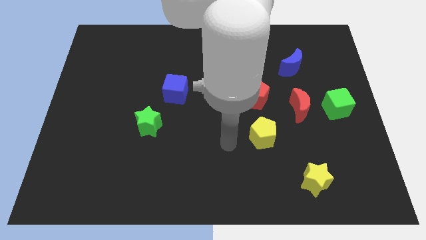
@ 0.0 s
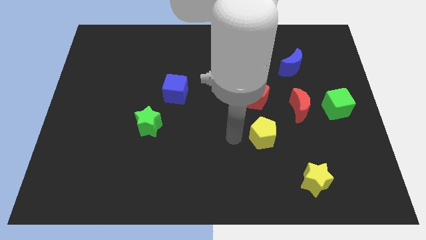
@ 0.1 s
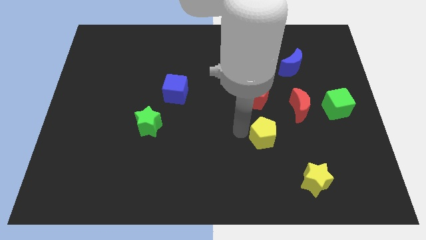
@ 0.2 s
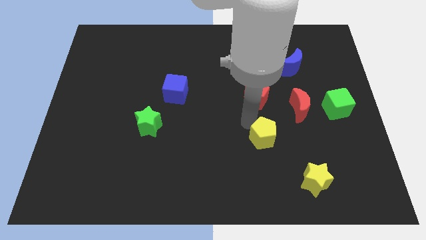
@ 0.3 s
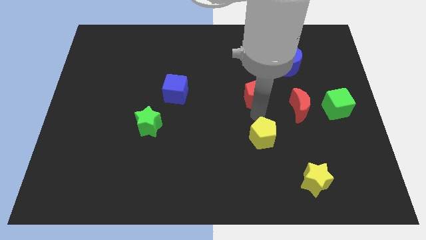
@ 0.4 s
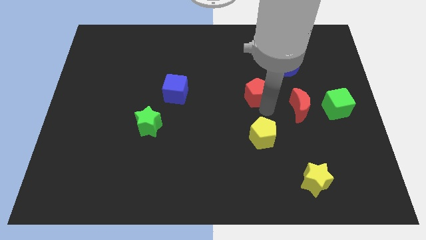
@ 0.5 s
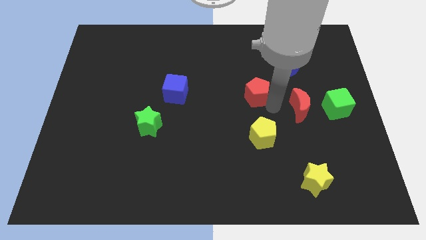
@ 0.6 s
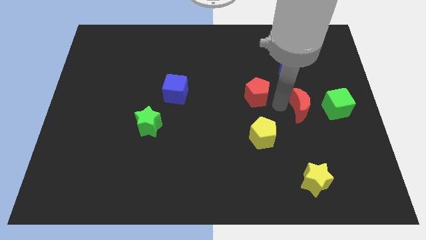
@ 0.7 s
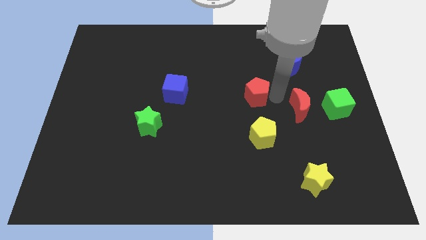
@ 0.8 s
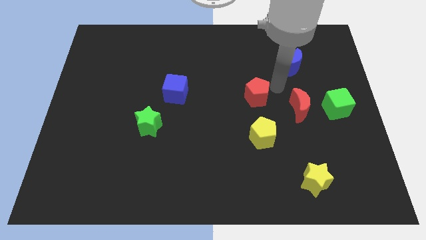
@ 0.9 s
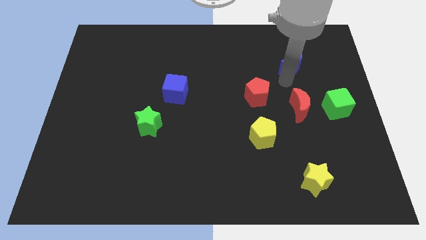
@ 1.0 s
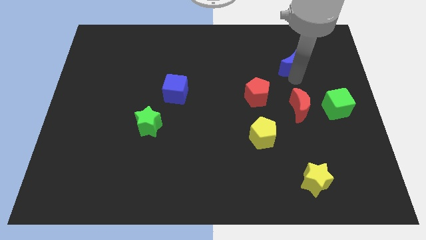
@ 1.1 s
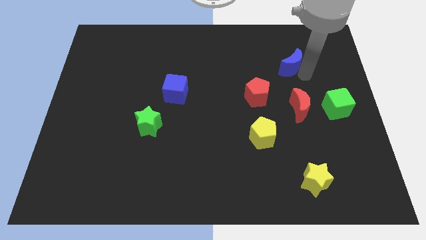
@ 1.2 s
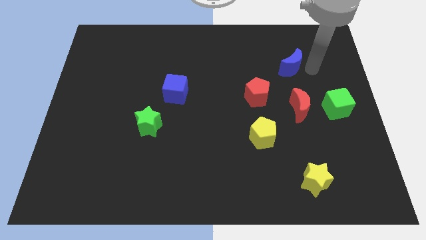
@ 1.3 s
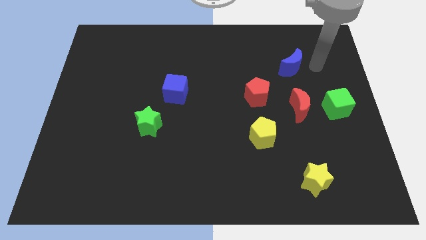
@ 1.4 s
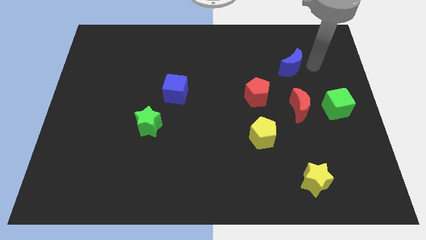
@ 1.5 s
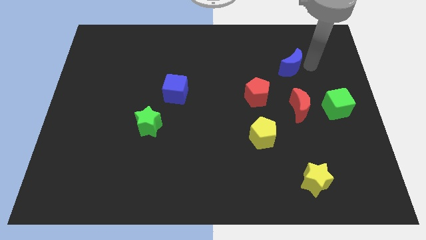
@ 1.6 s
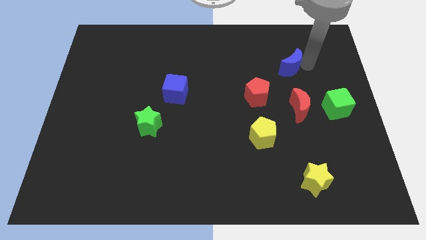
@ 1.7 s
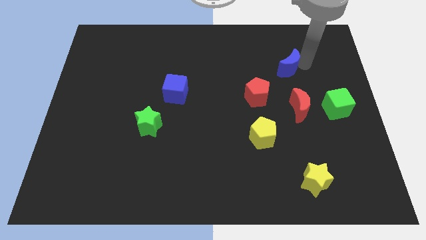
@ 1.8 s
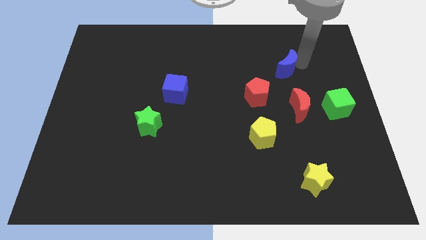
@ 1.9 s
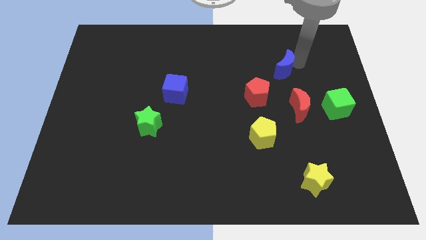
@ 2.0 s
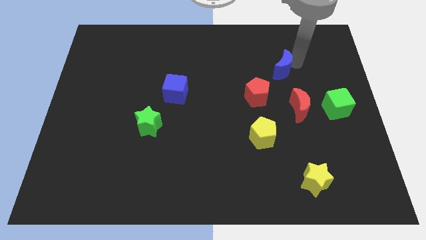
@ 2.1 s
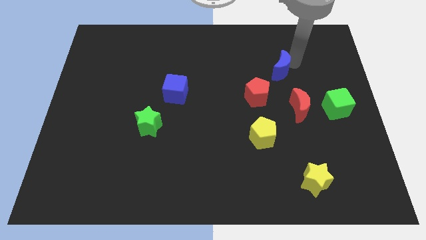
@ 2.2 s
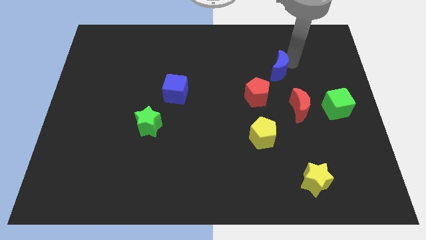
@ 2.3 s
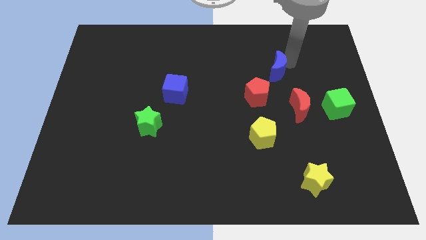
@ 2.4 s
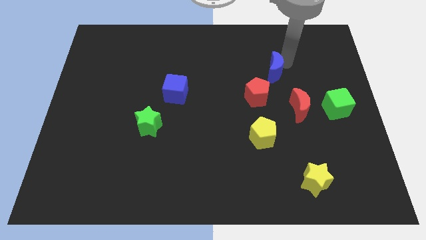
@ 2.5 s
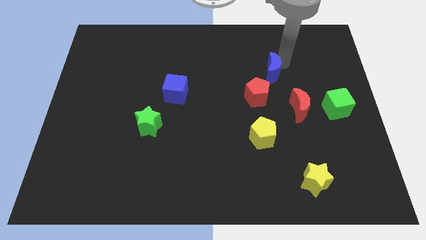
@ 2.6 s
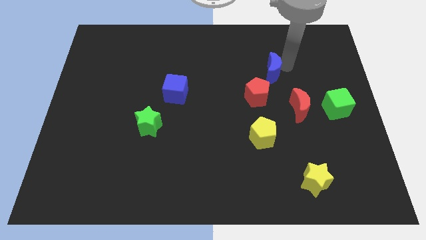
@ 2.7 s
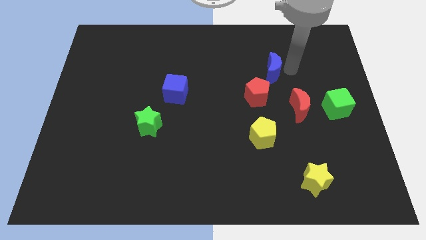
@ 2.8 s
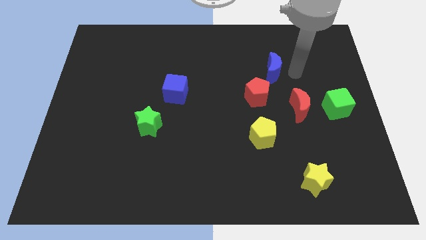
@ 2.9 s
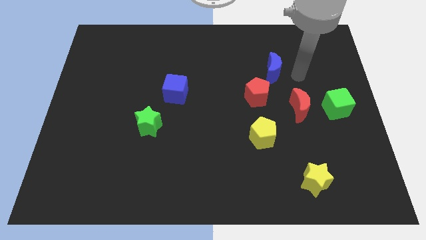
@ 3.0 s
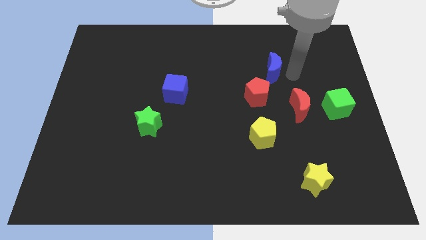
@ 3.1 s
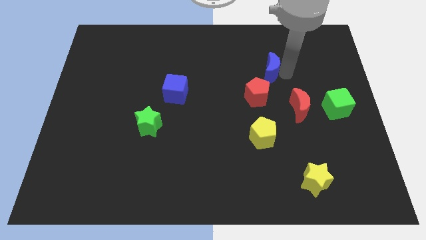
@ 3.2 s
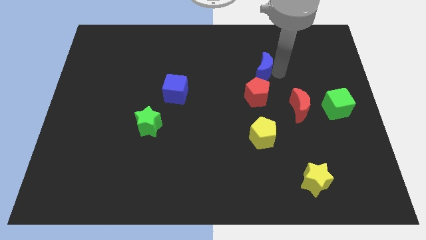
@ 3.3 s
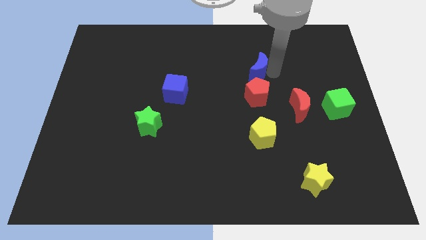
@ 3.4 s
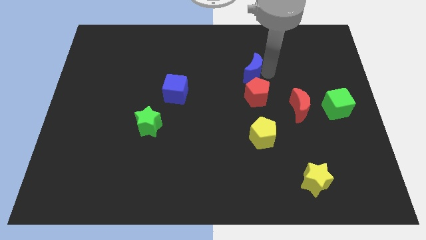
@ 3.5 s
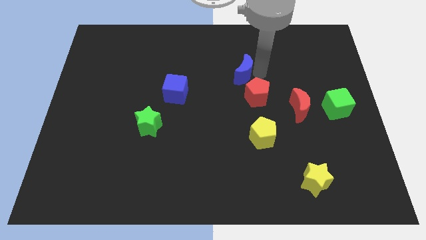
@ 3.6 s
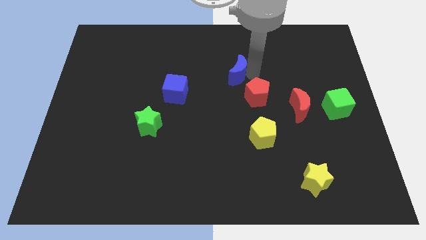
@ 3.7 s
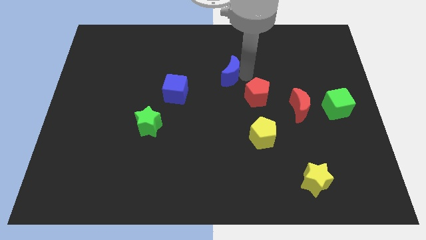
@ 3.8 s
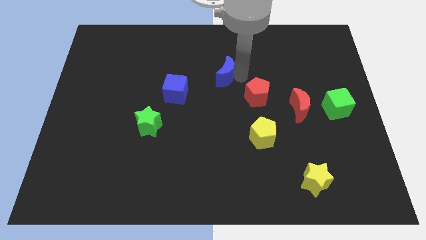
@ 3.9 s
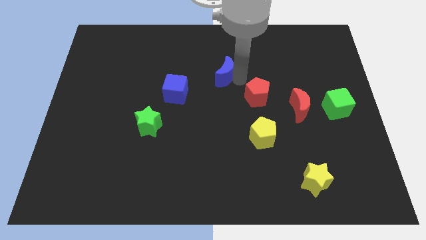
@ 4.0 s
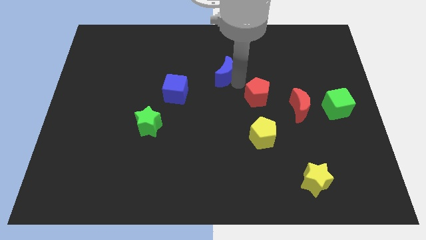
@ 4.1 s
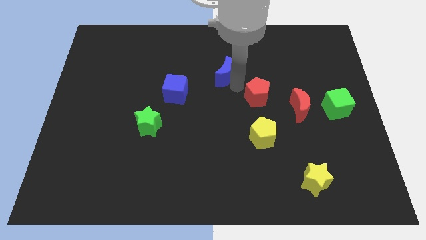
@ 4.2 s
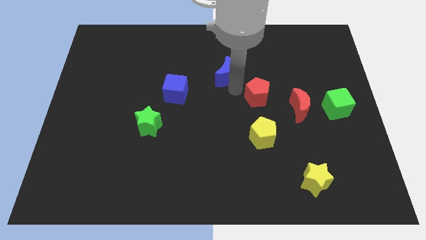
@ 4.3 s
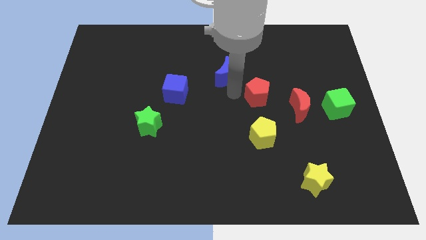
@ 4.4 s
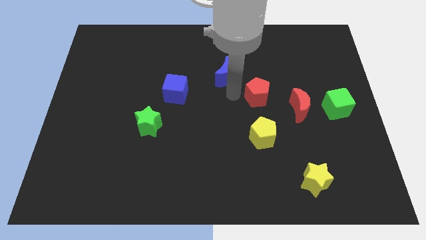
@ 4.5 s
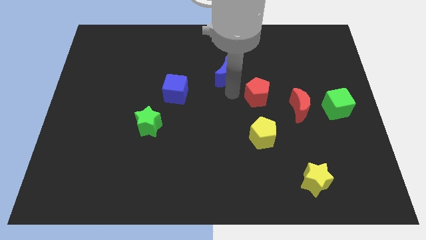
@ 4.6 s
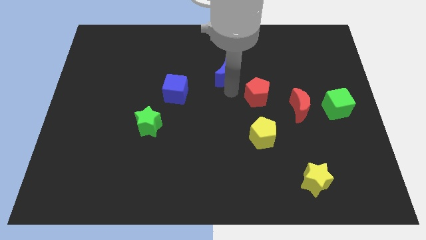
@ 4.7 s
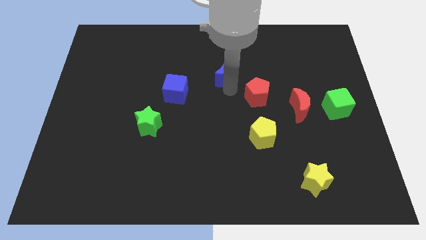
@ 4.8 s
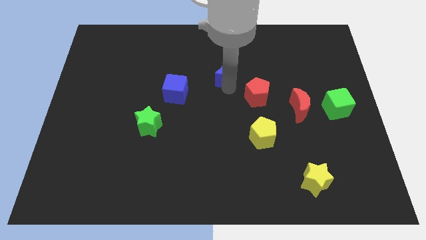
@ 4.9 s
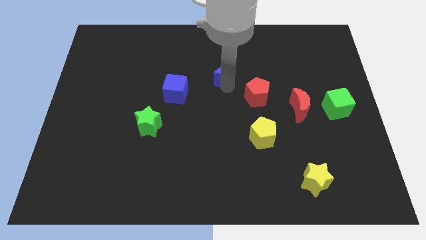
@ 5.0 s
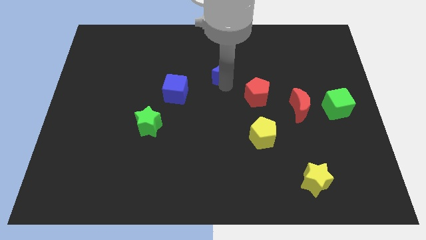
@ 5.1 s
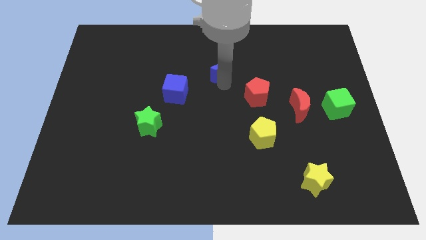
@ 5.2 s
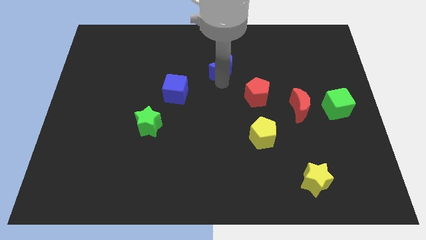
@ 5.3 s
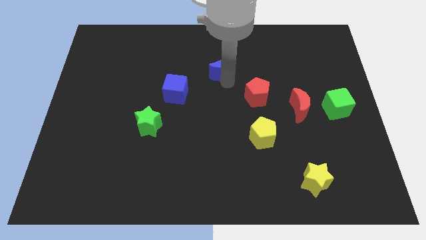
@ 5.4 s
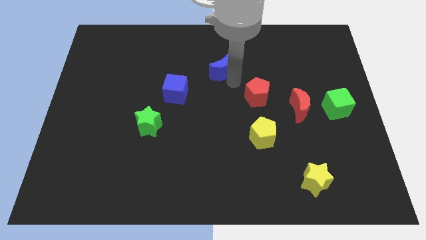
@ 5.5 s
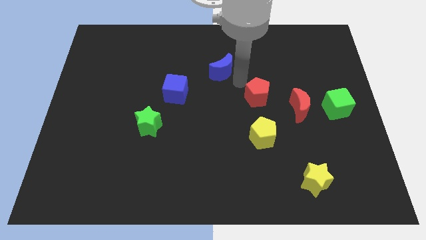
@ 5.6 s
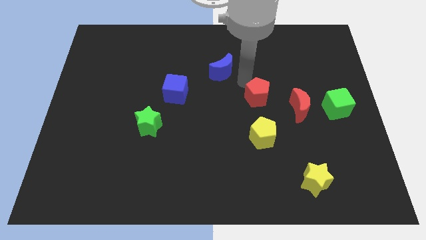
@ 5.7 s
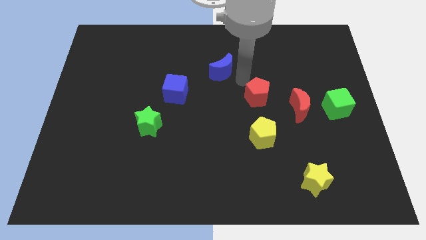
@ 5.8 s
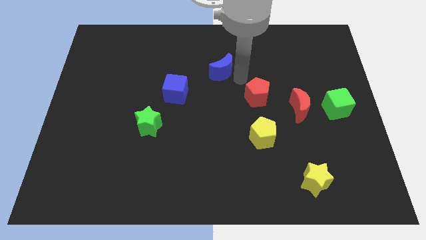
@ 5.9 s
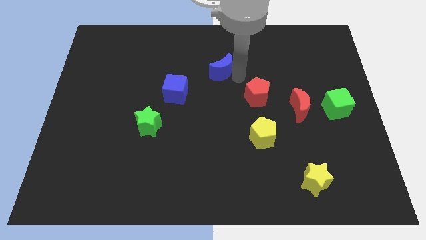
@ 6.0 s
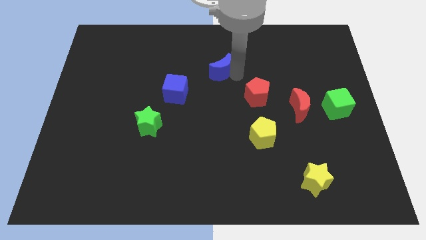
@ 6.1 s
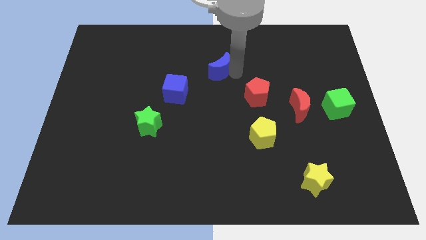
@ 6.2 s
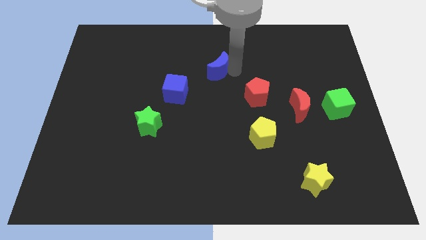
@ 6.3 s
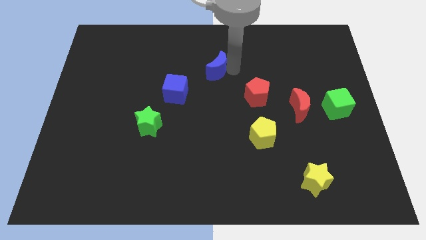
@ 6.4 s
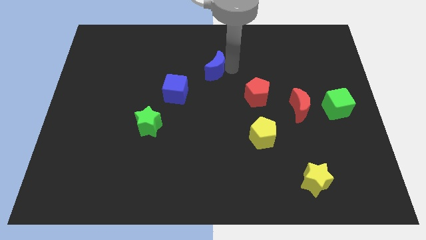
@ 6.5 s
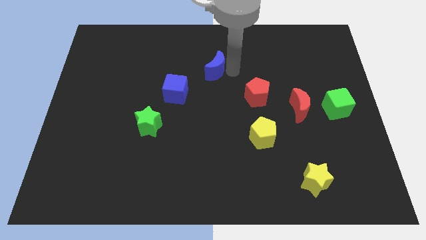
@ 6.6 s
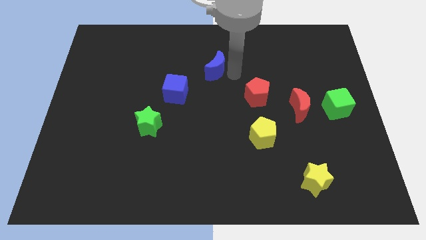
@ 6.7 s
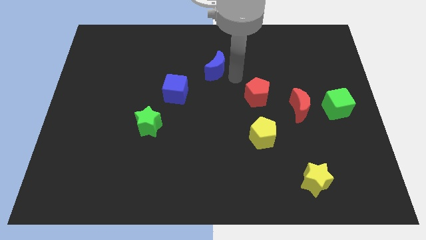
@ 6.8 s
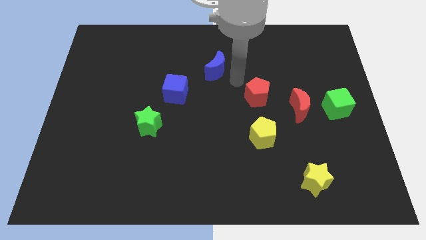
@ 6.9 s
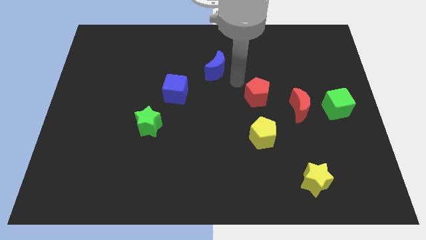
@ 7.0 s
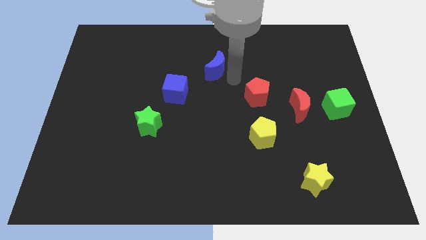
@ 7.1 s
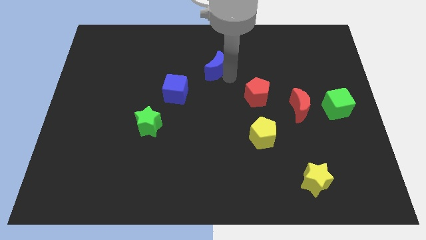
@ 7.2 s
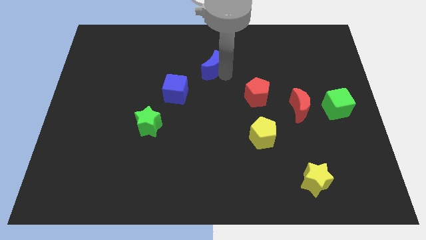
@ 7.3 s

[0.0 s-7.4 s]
slide the blue moon left

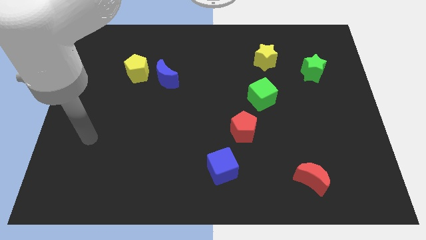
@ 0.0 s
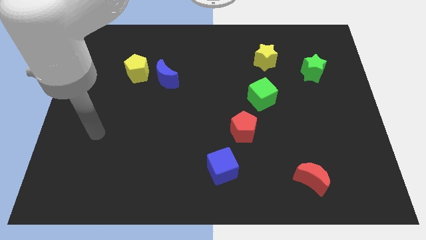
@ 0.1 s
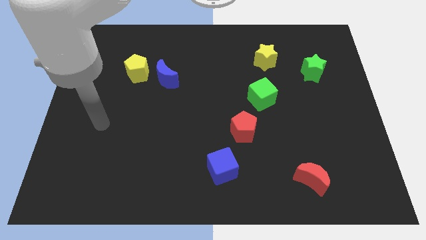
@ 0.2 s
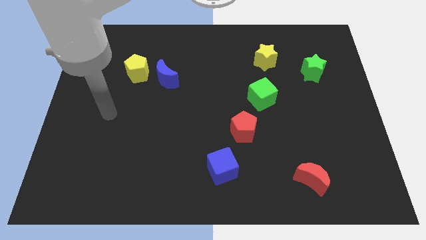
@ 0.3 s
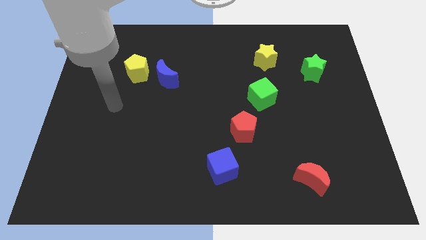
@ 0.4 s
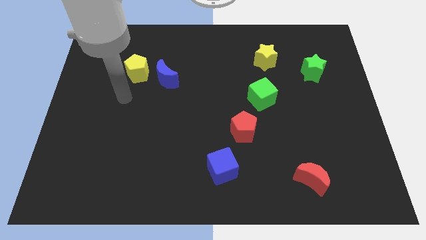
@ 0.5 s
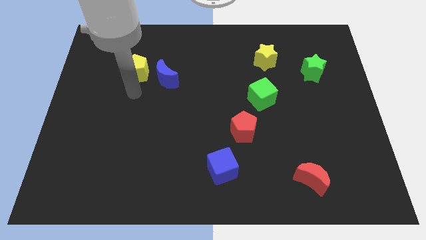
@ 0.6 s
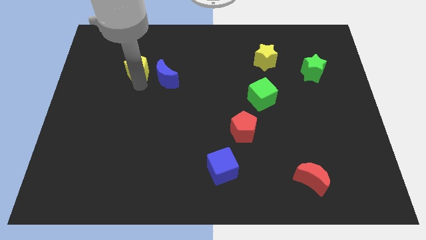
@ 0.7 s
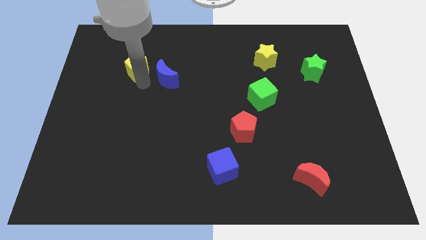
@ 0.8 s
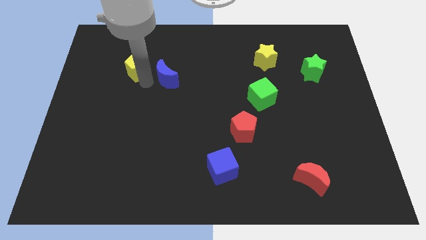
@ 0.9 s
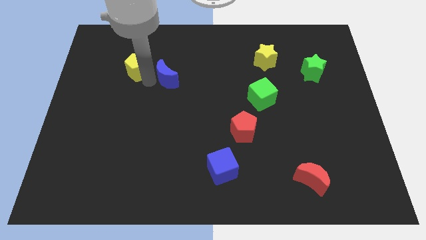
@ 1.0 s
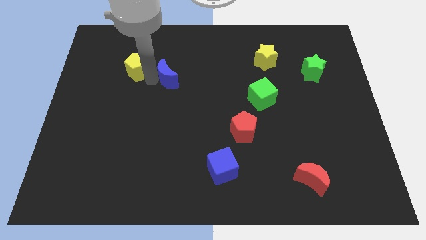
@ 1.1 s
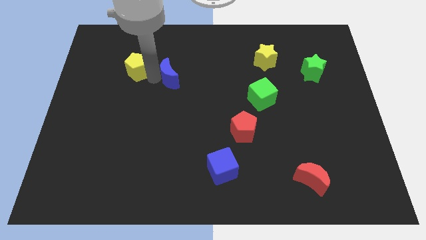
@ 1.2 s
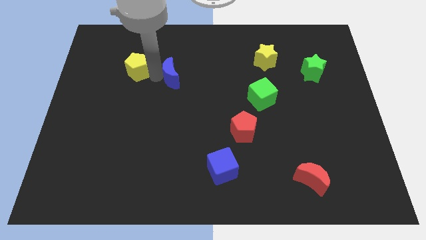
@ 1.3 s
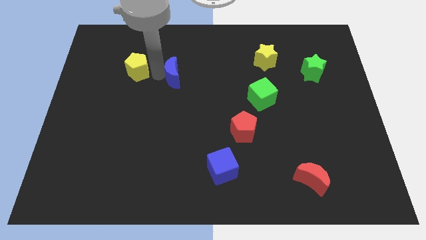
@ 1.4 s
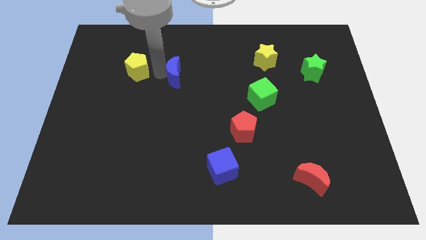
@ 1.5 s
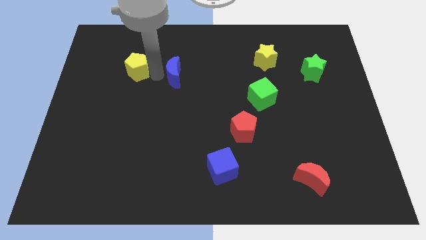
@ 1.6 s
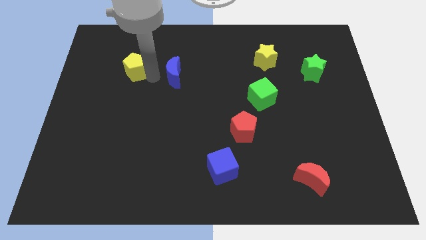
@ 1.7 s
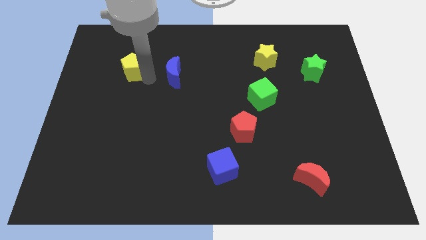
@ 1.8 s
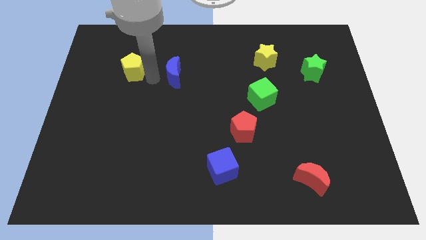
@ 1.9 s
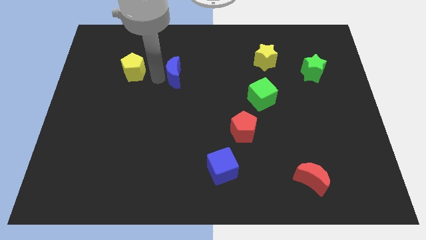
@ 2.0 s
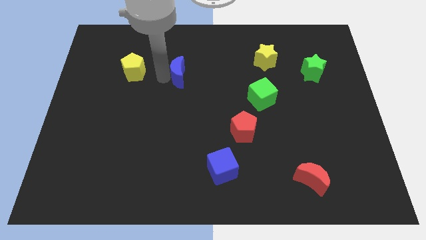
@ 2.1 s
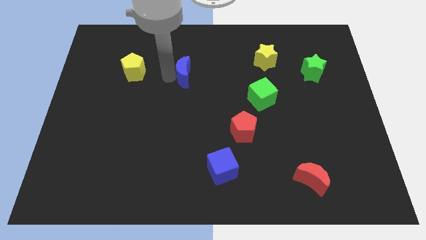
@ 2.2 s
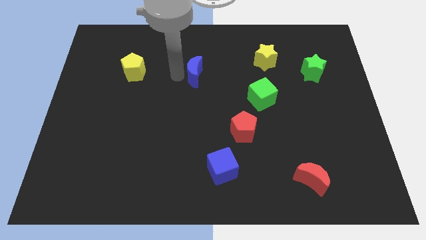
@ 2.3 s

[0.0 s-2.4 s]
slide the blue moon a little bit to the right
